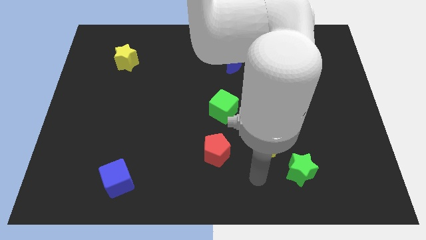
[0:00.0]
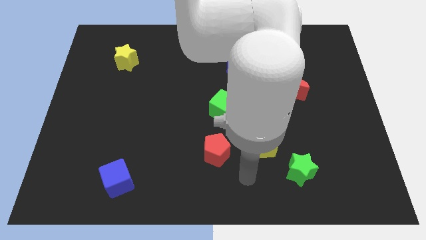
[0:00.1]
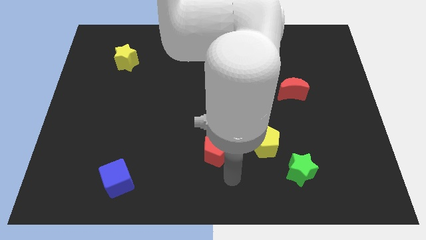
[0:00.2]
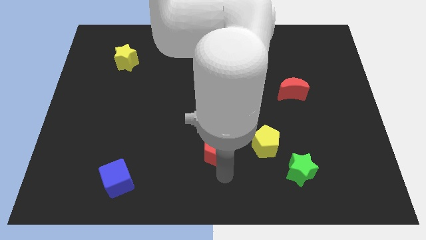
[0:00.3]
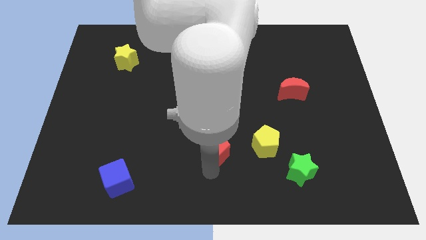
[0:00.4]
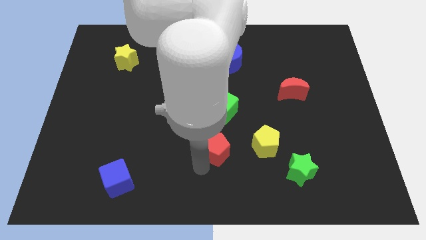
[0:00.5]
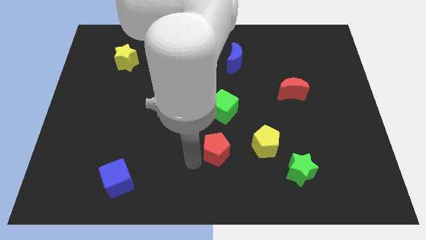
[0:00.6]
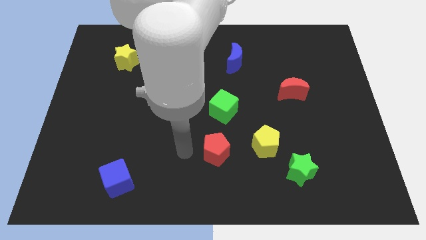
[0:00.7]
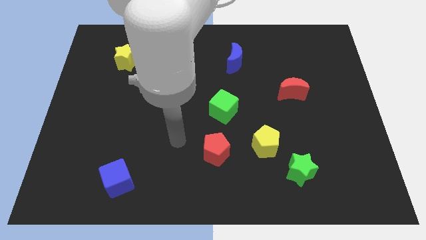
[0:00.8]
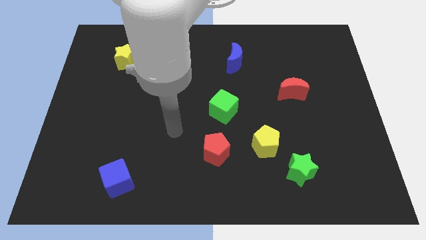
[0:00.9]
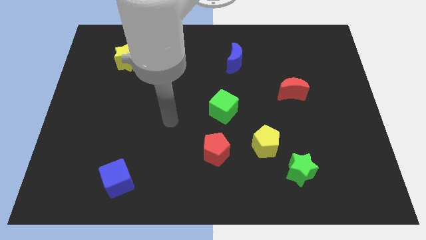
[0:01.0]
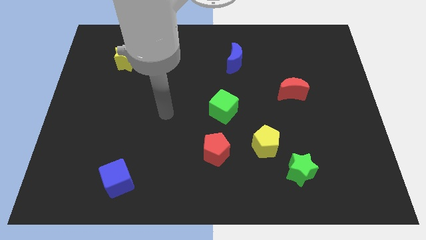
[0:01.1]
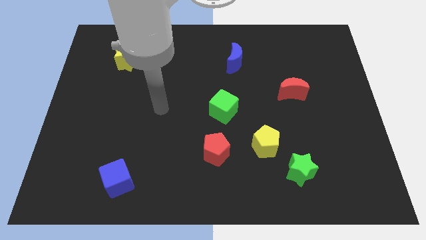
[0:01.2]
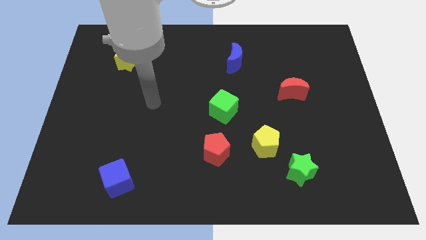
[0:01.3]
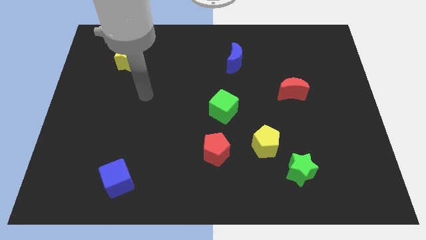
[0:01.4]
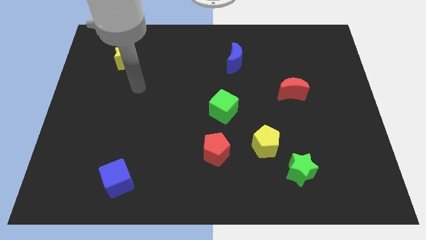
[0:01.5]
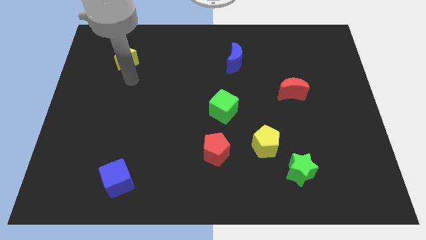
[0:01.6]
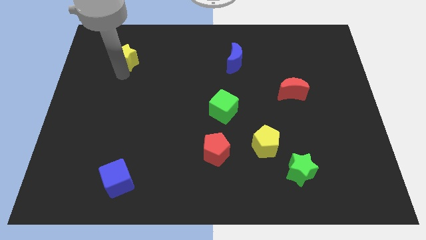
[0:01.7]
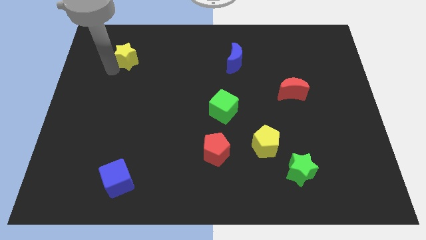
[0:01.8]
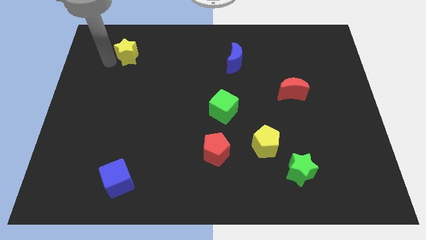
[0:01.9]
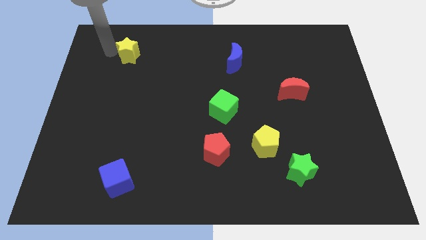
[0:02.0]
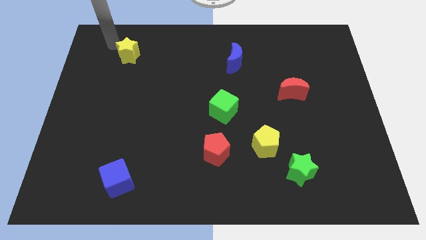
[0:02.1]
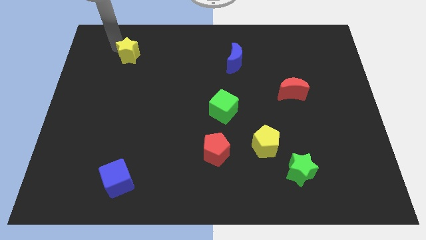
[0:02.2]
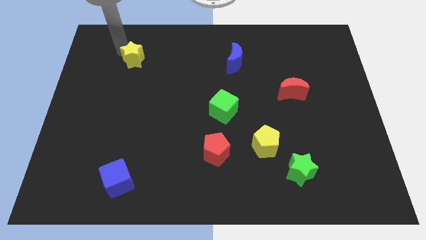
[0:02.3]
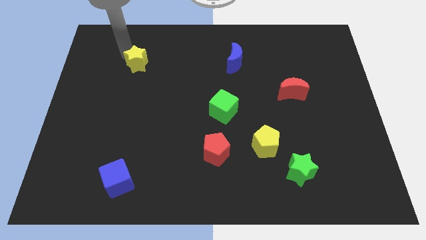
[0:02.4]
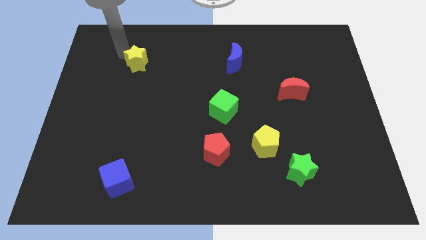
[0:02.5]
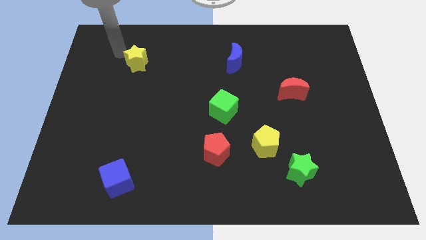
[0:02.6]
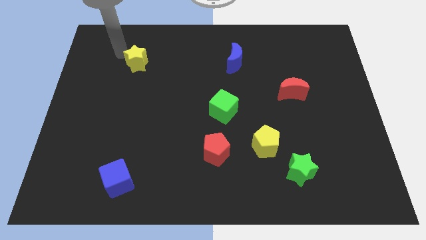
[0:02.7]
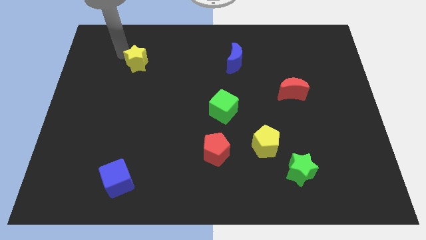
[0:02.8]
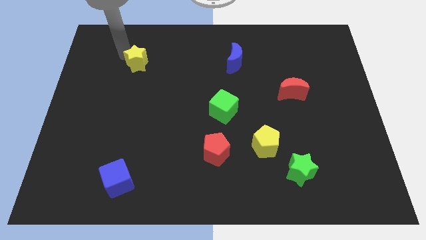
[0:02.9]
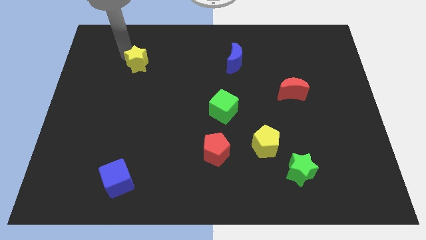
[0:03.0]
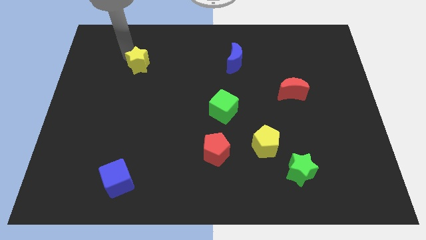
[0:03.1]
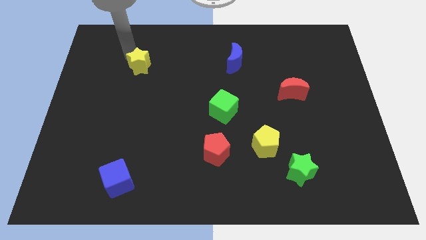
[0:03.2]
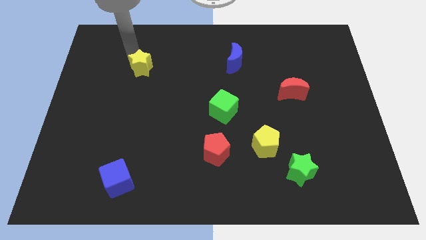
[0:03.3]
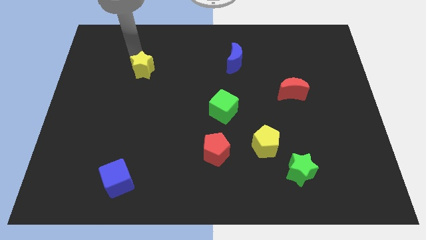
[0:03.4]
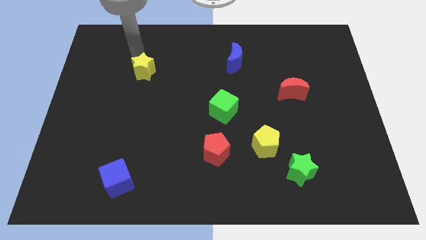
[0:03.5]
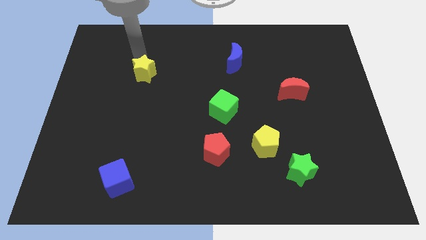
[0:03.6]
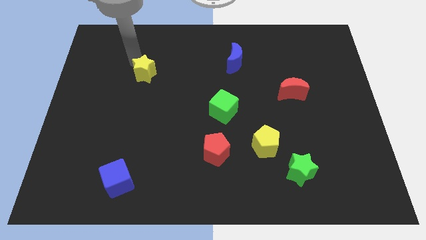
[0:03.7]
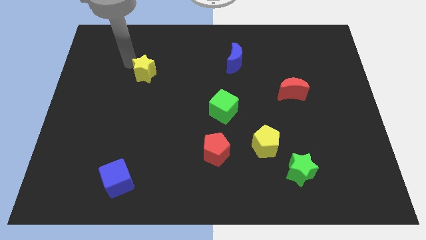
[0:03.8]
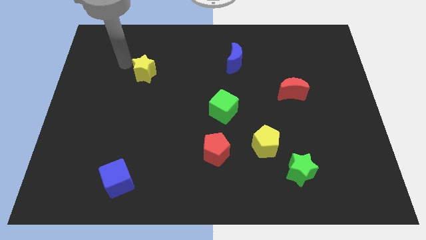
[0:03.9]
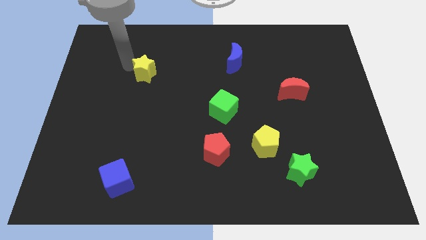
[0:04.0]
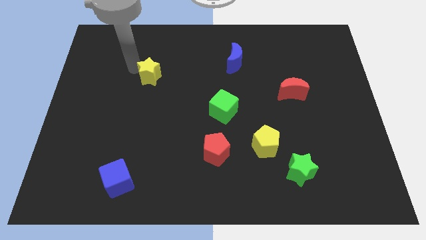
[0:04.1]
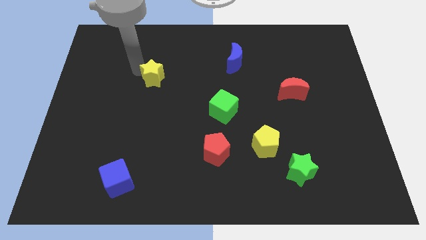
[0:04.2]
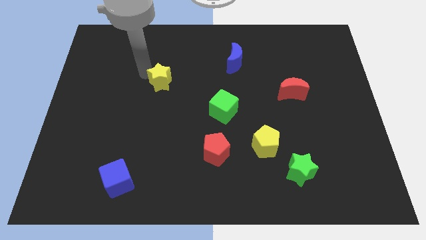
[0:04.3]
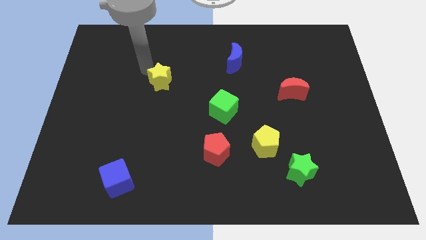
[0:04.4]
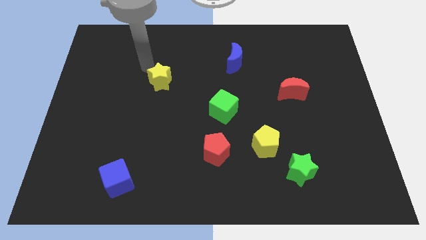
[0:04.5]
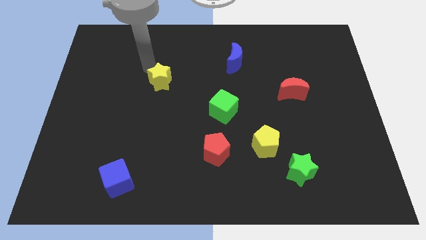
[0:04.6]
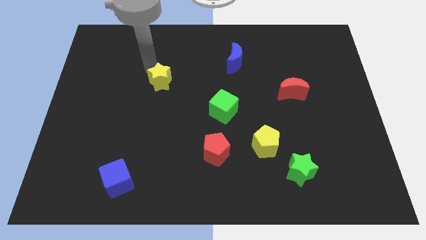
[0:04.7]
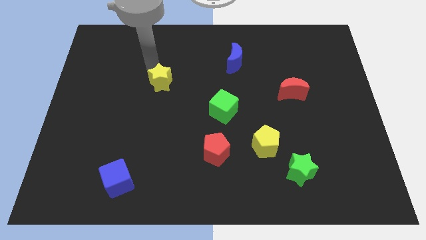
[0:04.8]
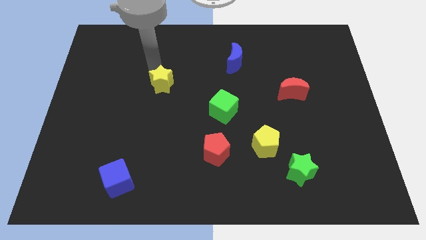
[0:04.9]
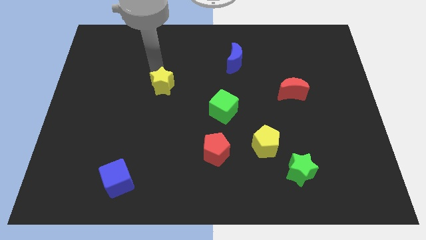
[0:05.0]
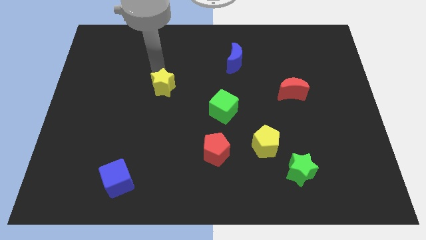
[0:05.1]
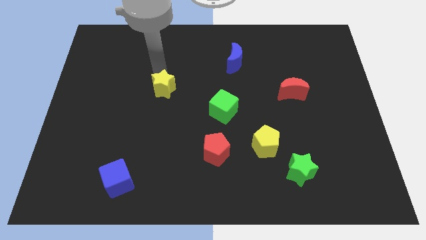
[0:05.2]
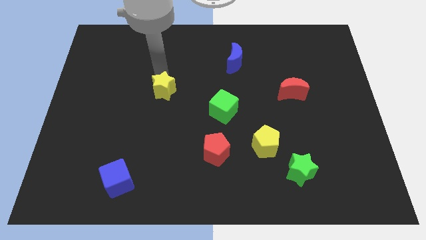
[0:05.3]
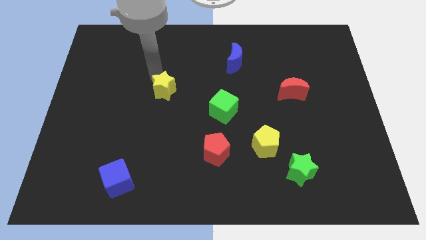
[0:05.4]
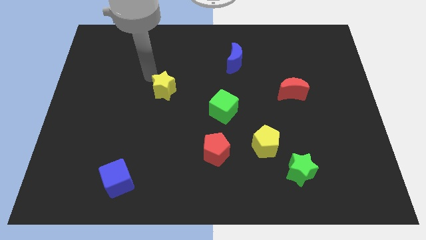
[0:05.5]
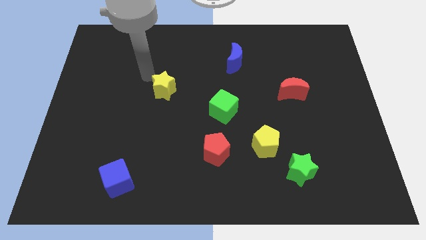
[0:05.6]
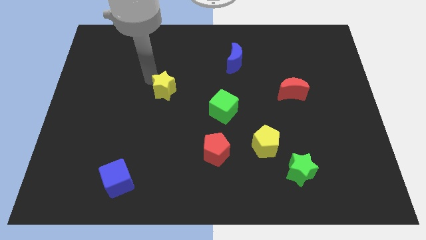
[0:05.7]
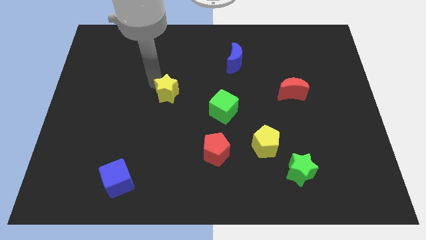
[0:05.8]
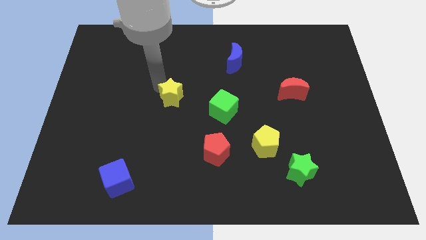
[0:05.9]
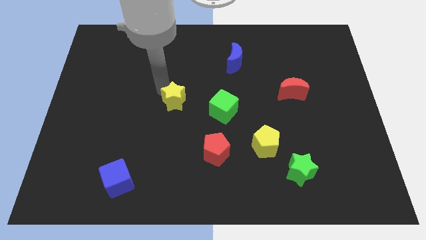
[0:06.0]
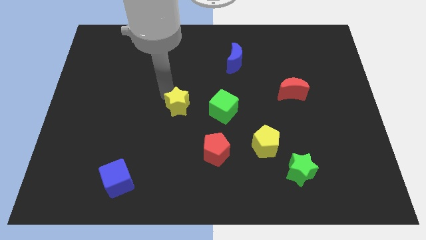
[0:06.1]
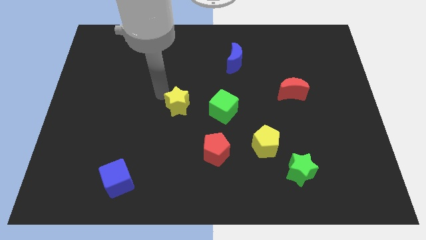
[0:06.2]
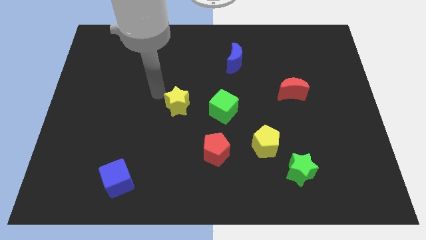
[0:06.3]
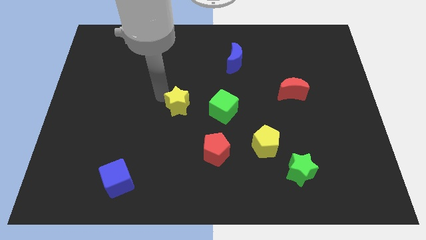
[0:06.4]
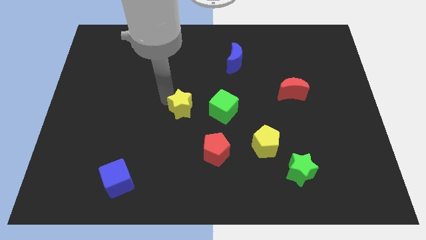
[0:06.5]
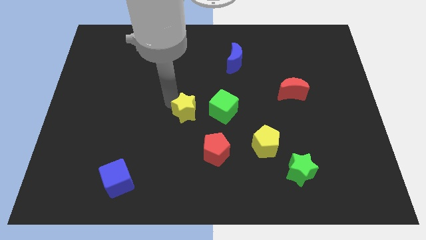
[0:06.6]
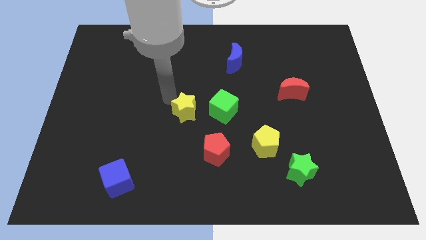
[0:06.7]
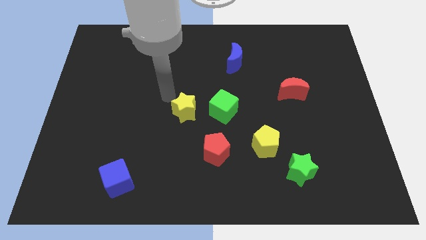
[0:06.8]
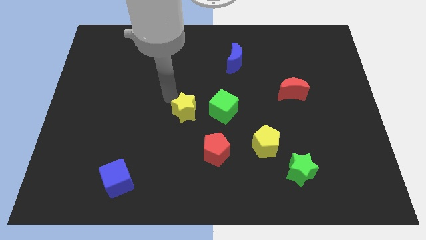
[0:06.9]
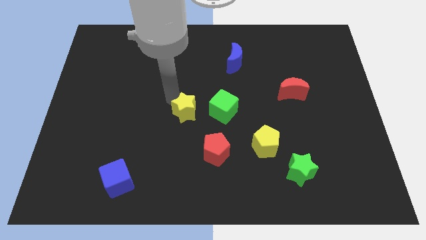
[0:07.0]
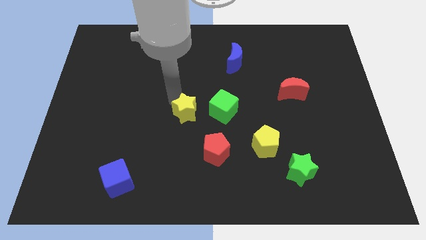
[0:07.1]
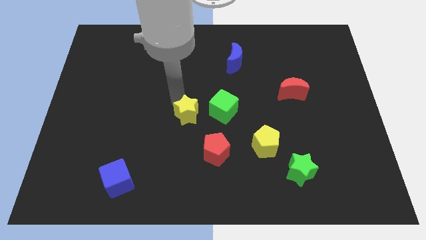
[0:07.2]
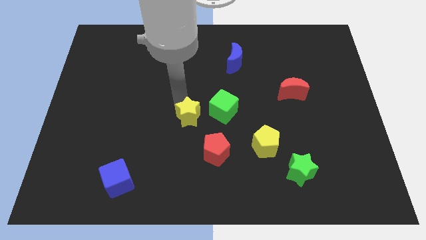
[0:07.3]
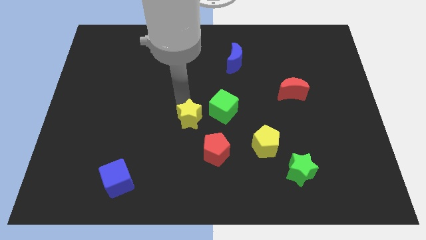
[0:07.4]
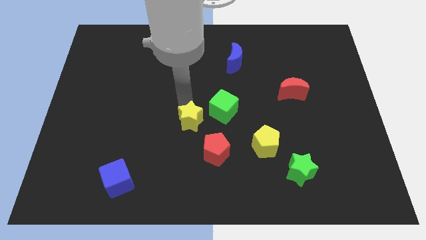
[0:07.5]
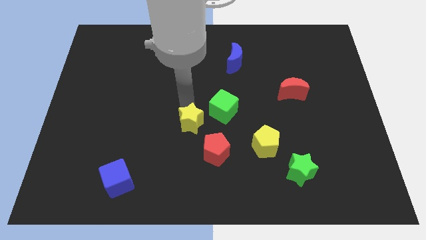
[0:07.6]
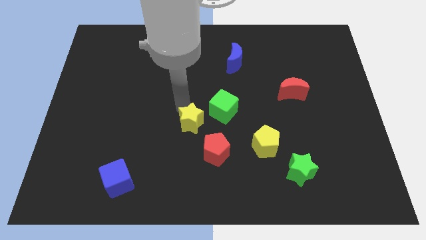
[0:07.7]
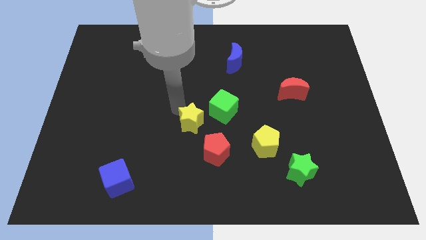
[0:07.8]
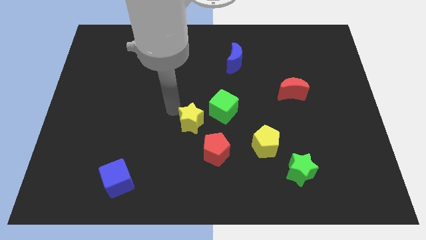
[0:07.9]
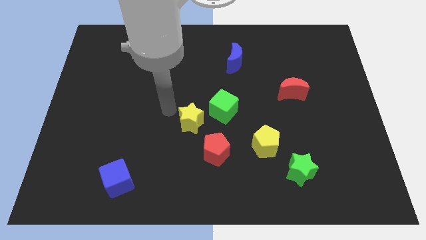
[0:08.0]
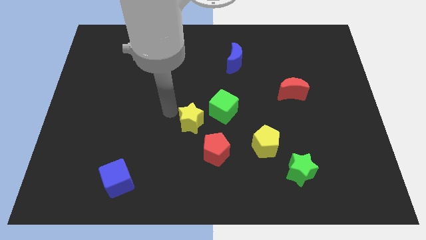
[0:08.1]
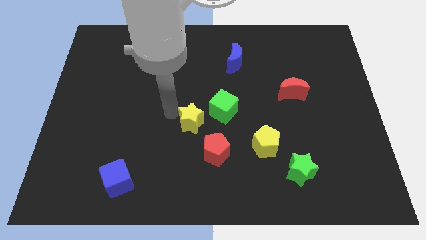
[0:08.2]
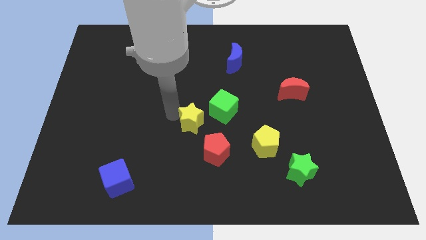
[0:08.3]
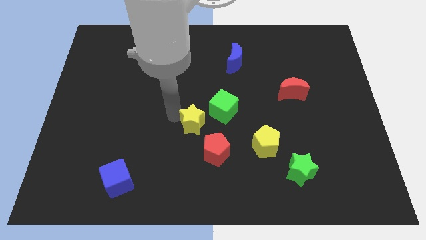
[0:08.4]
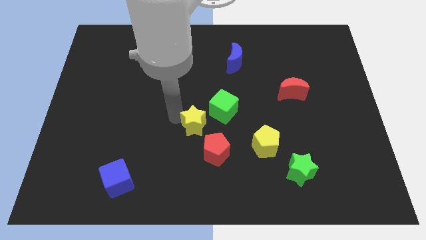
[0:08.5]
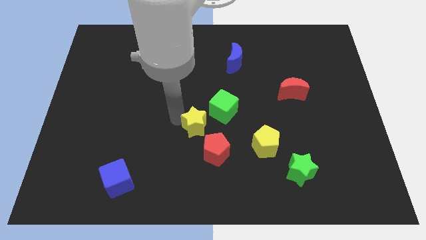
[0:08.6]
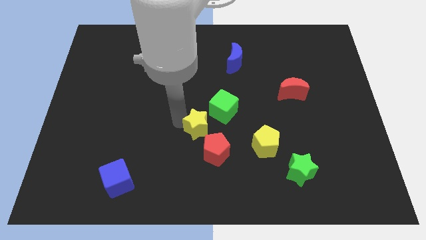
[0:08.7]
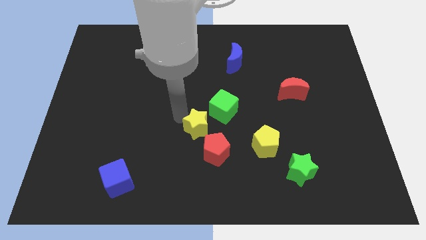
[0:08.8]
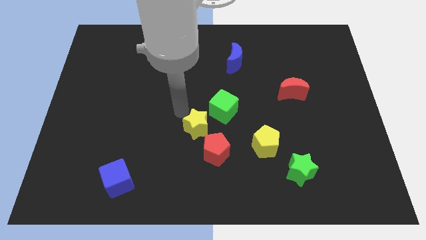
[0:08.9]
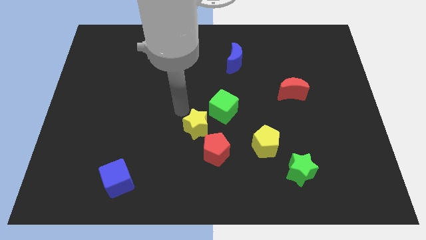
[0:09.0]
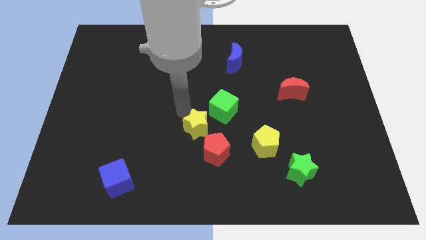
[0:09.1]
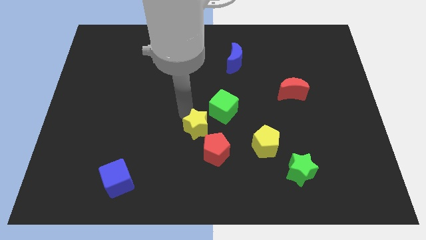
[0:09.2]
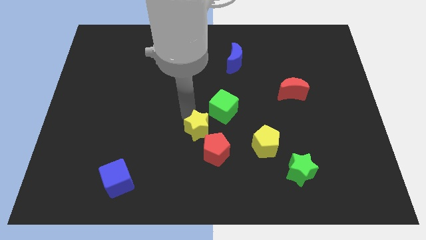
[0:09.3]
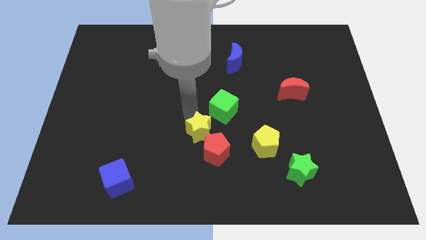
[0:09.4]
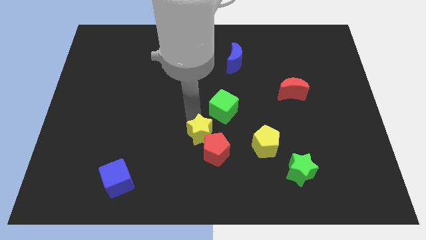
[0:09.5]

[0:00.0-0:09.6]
slide the yellow star to the red pentagon
